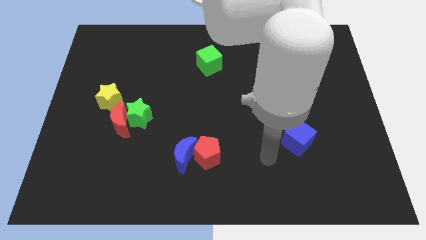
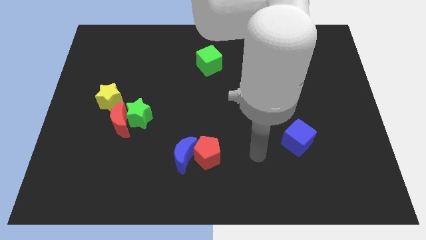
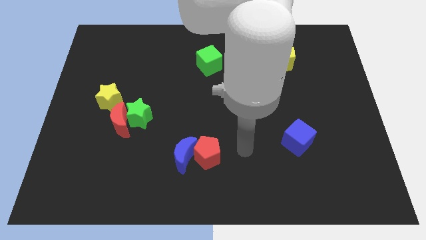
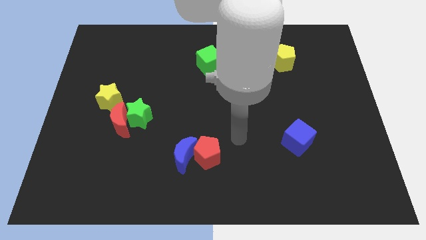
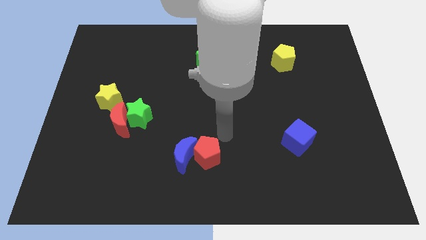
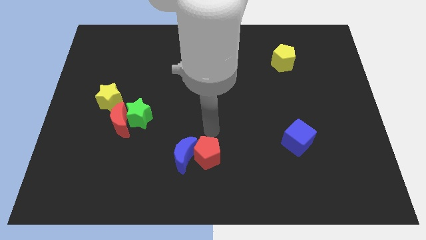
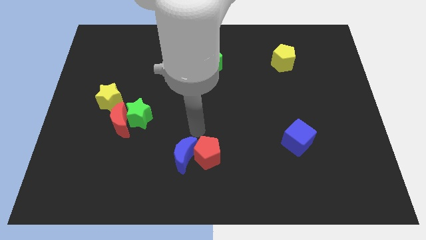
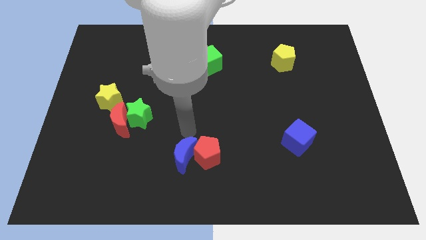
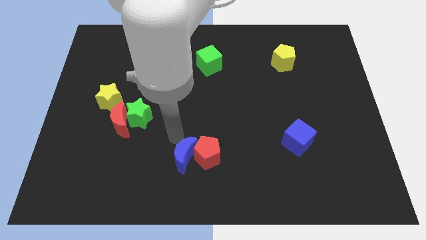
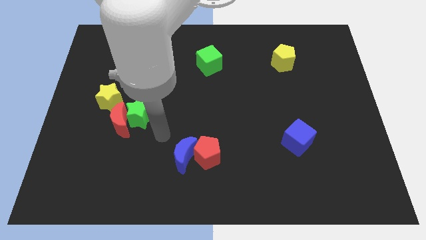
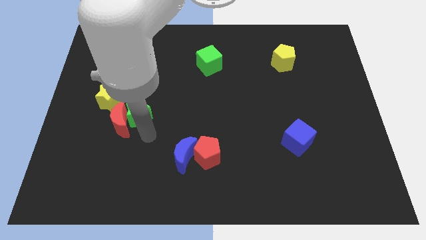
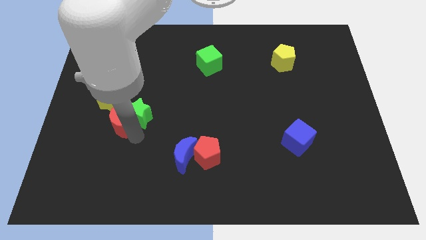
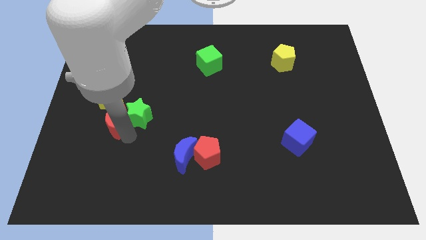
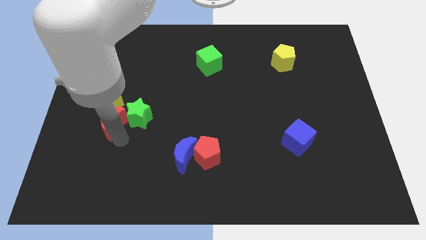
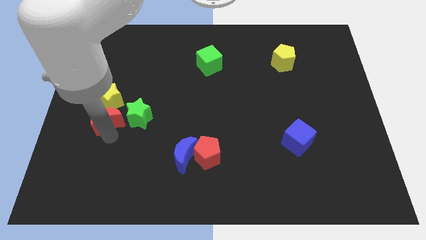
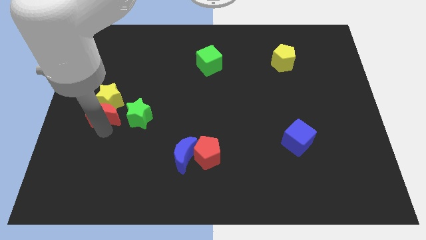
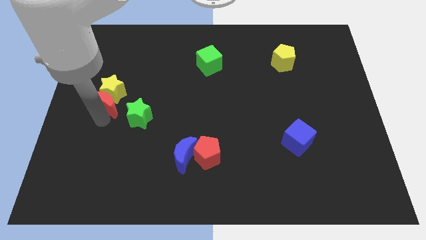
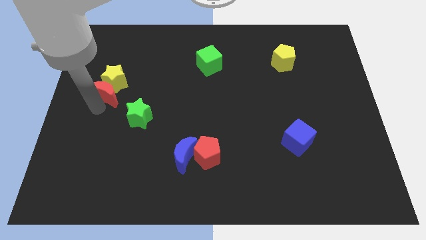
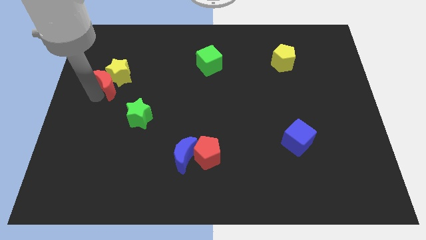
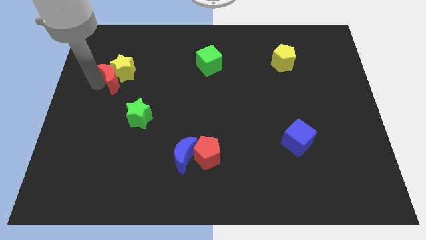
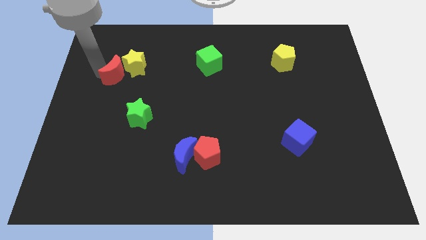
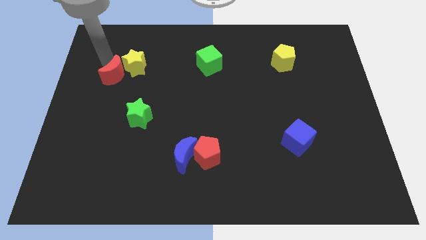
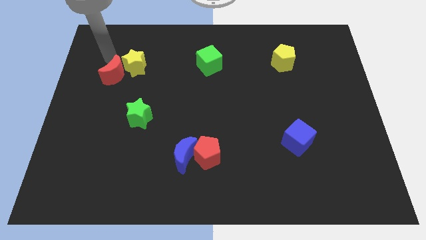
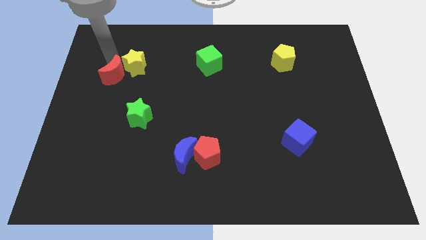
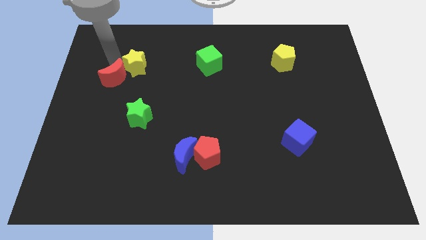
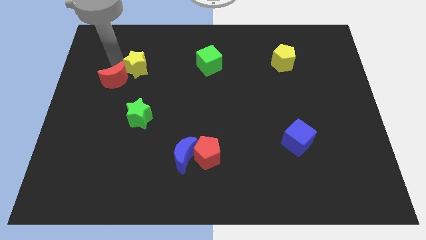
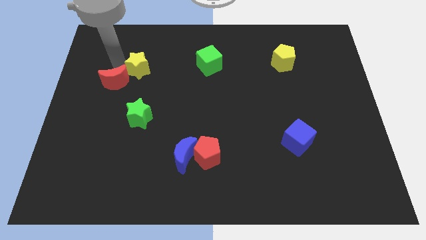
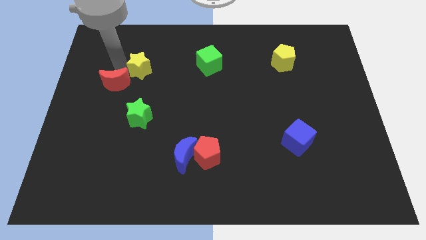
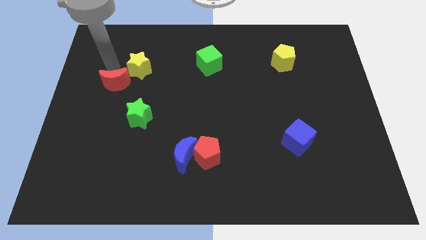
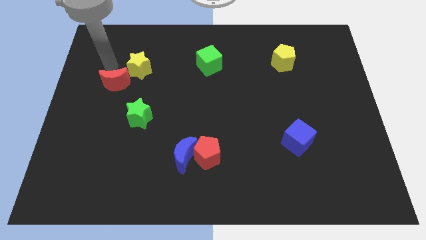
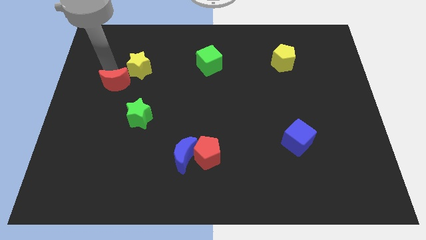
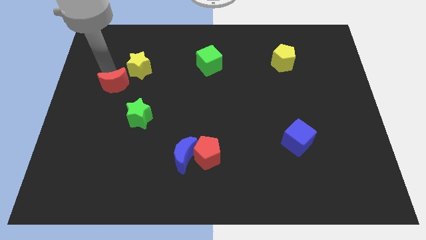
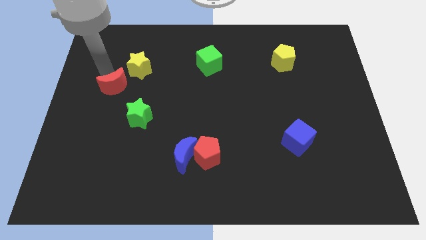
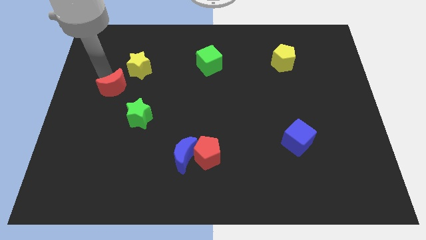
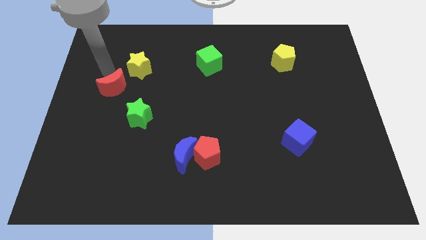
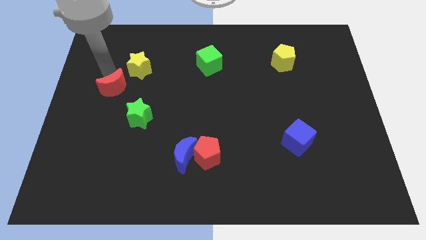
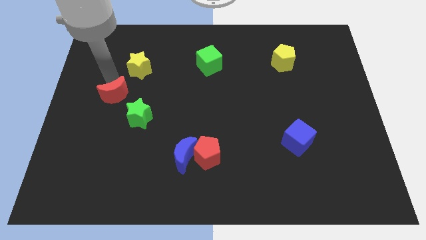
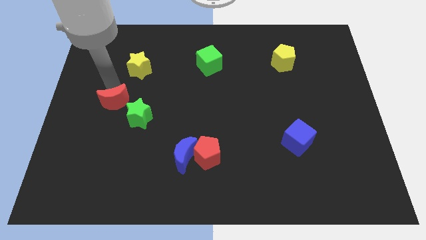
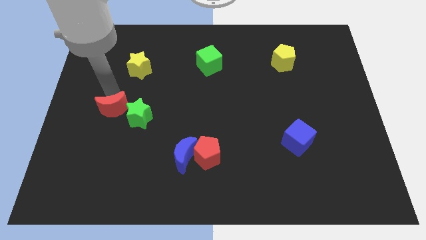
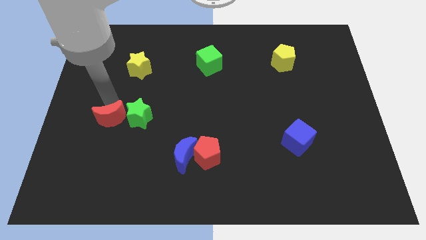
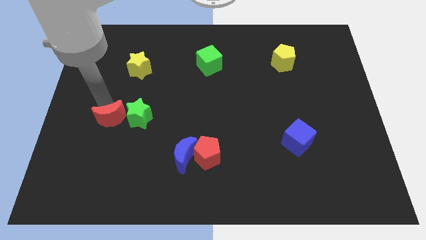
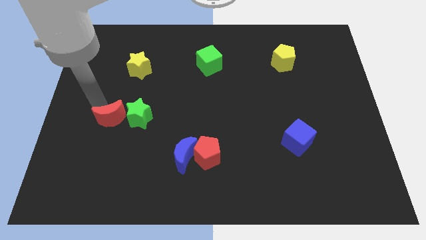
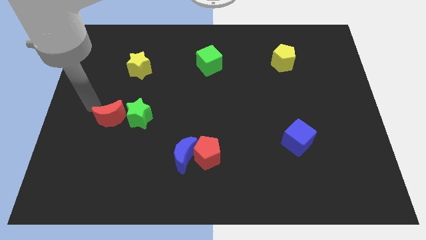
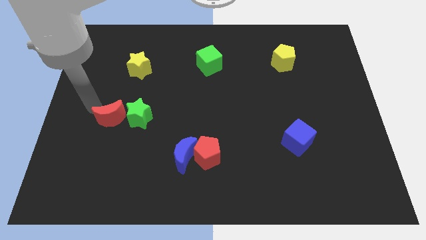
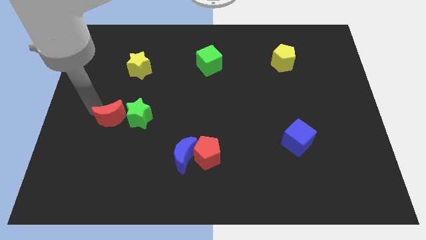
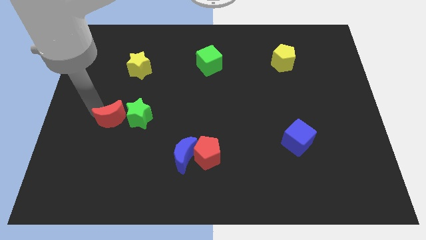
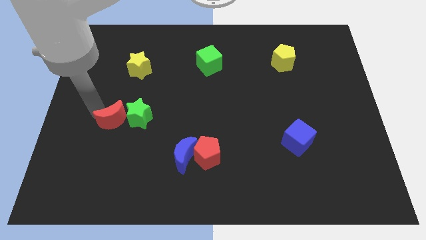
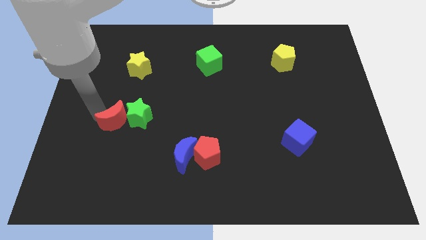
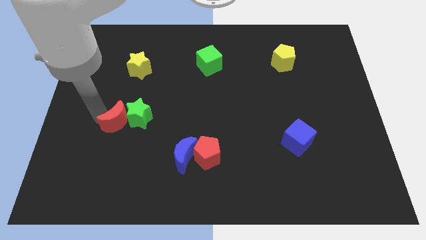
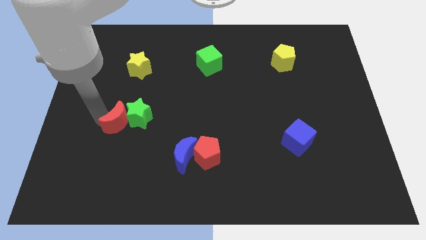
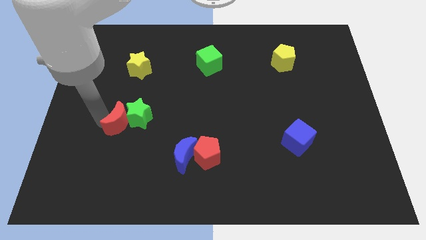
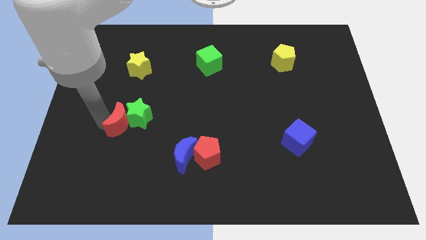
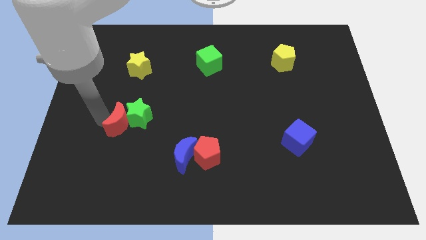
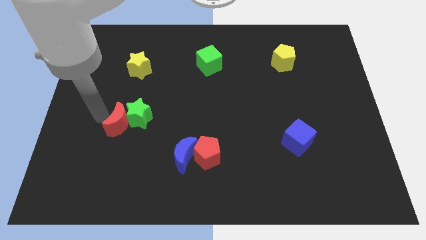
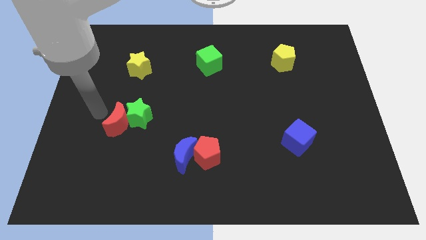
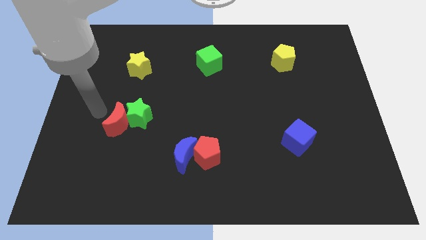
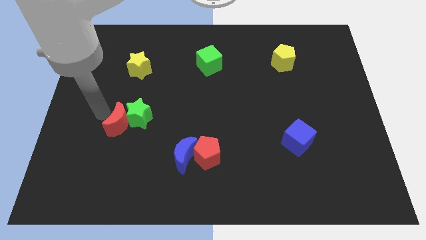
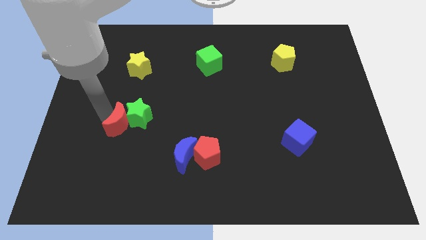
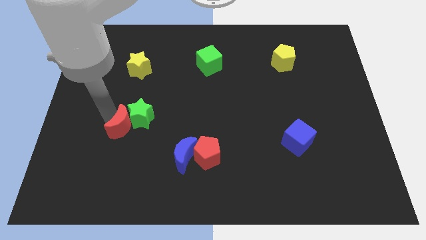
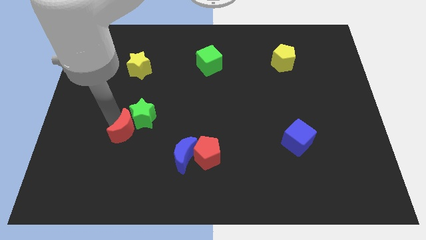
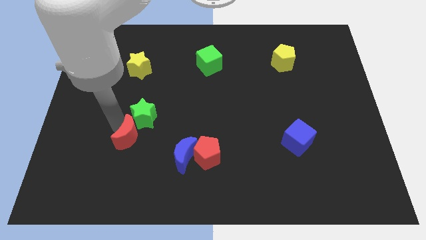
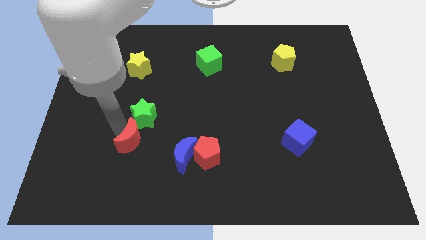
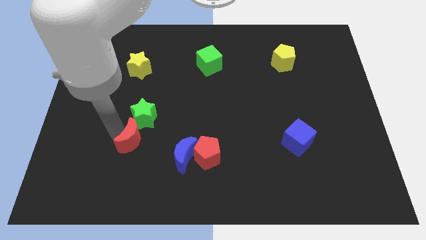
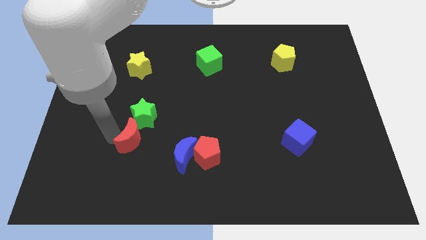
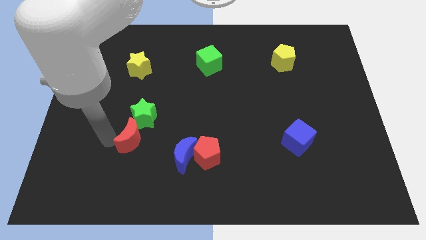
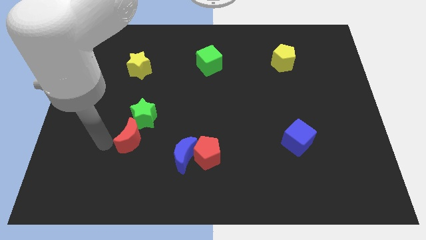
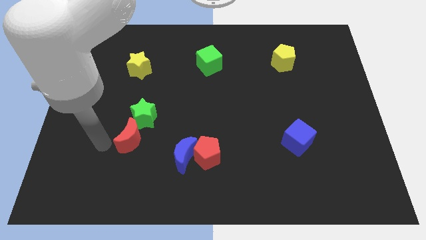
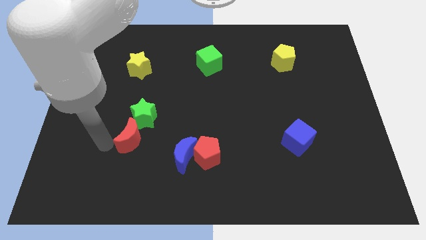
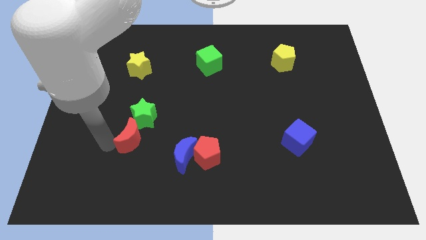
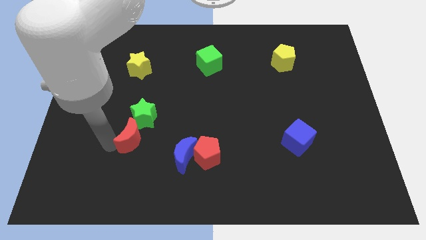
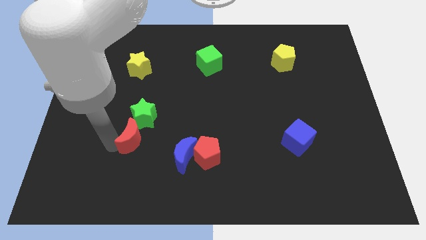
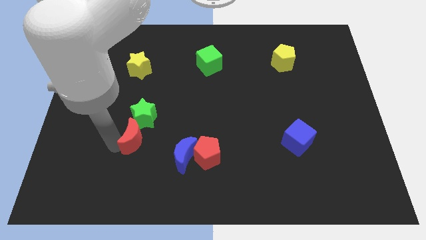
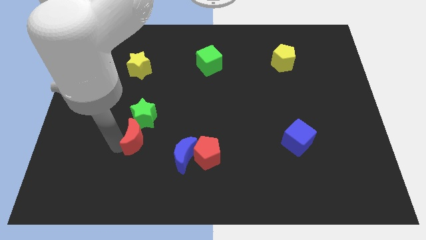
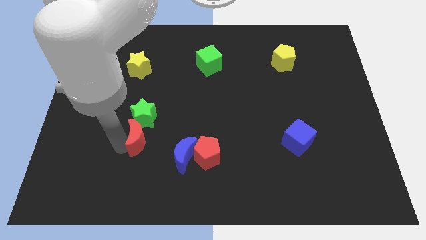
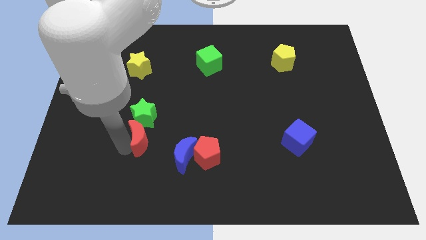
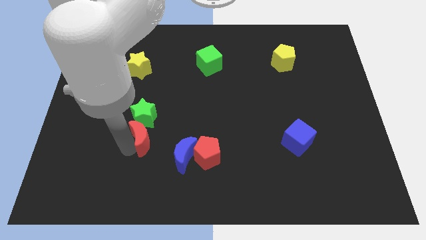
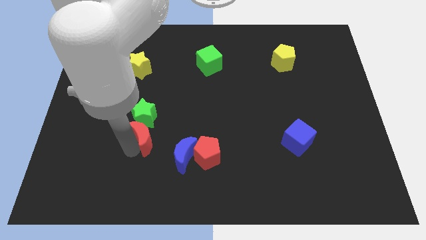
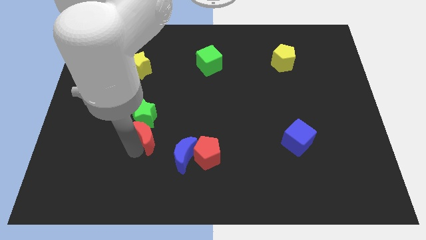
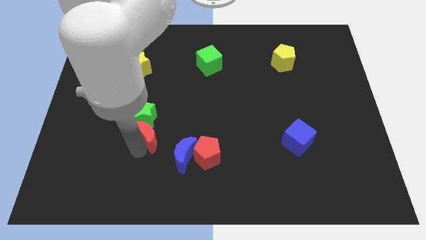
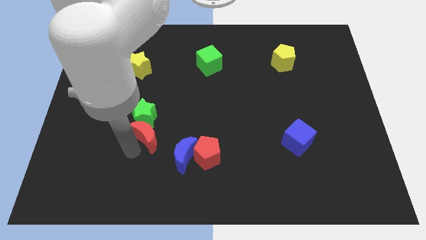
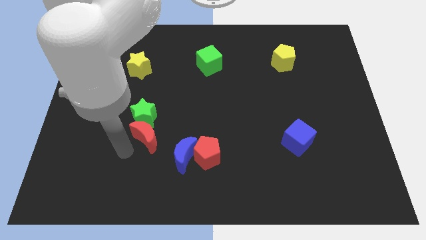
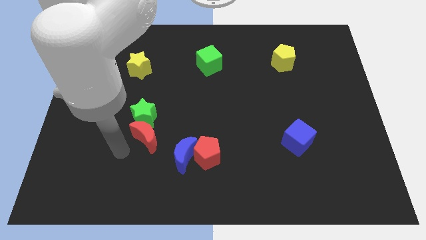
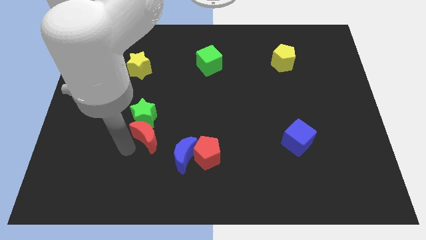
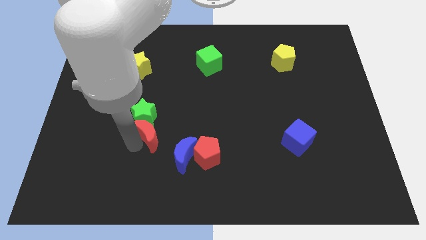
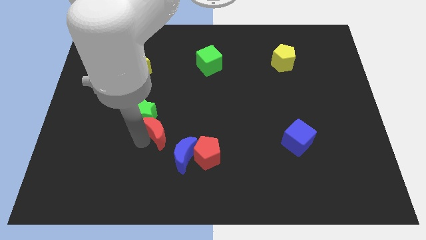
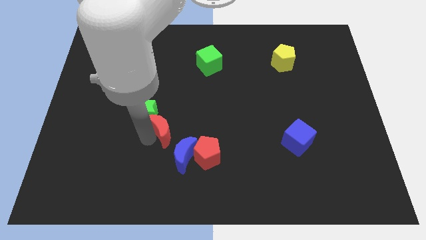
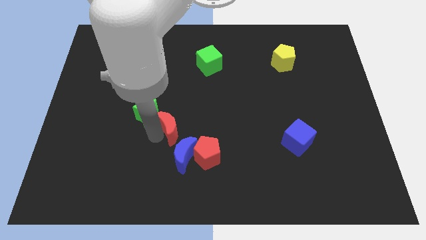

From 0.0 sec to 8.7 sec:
put the red moon above the blue moon
